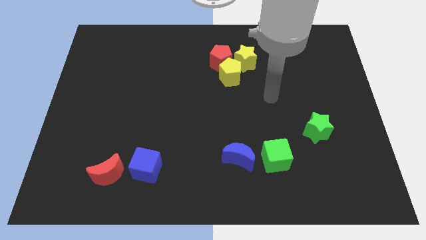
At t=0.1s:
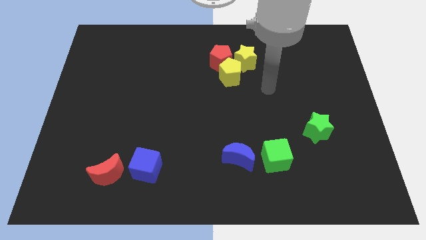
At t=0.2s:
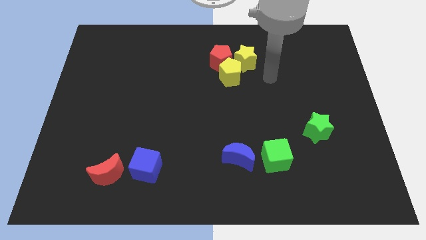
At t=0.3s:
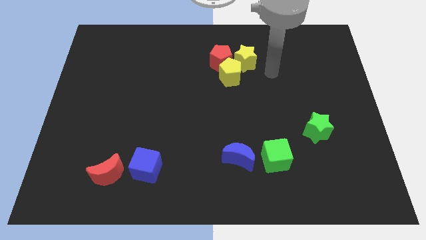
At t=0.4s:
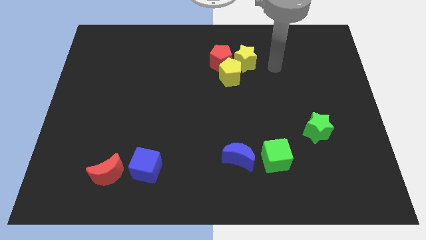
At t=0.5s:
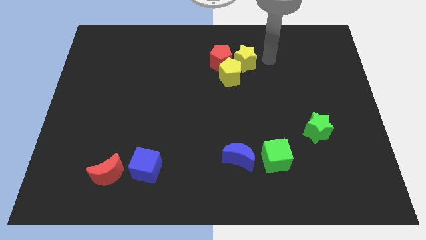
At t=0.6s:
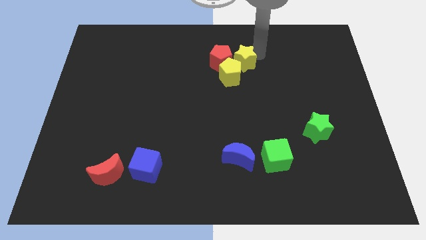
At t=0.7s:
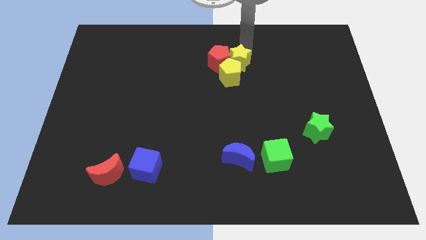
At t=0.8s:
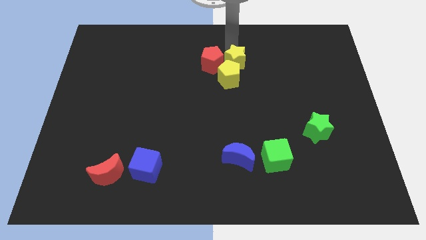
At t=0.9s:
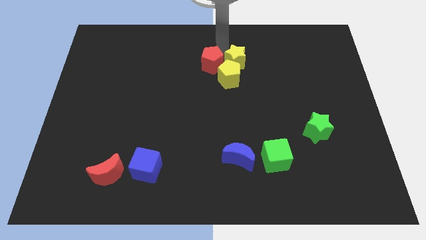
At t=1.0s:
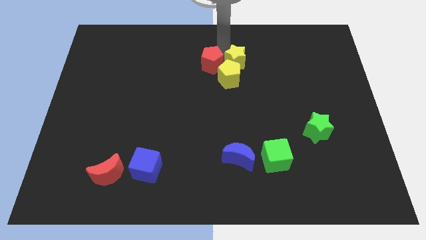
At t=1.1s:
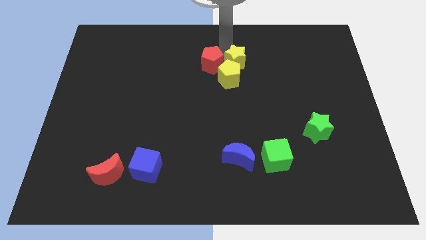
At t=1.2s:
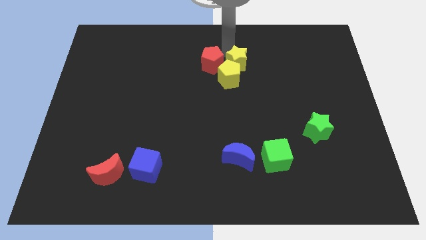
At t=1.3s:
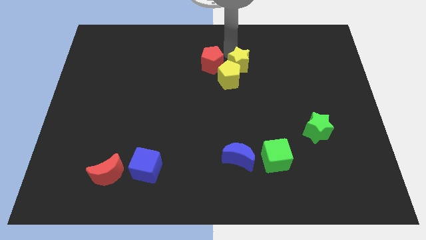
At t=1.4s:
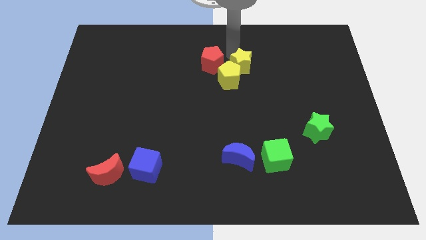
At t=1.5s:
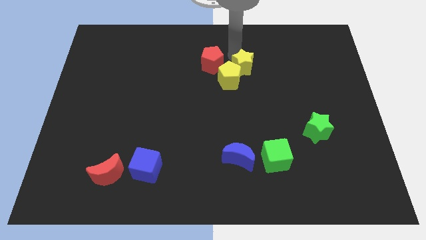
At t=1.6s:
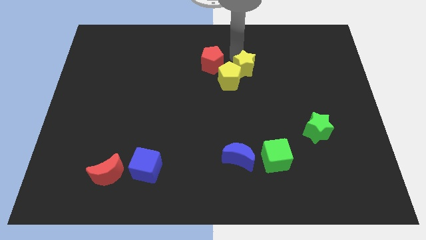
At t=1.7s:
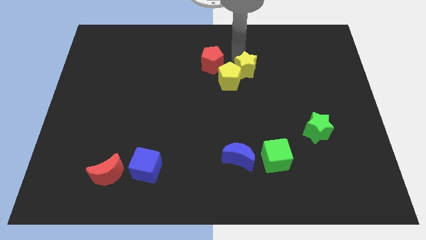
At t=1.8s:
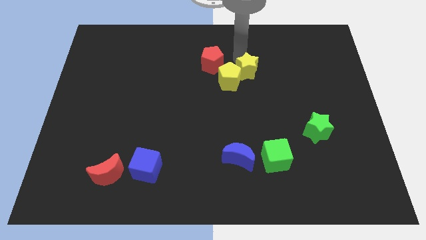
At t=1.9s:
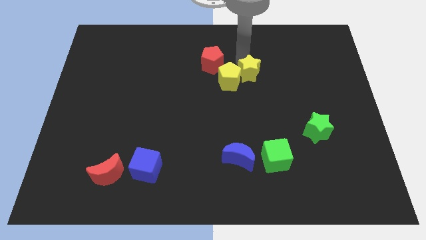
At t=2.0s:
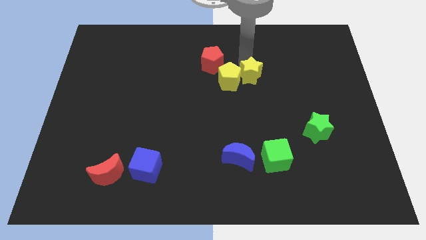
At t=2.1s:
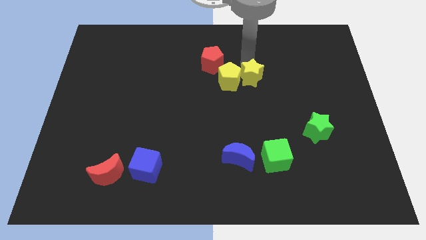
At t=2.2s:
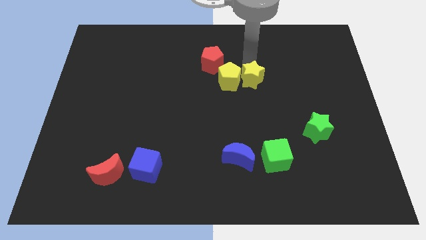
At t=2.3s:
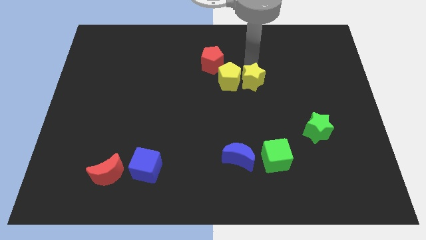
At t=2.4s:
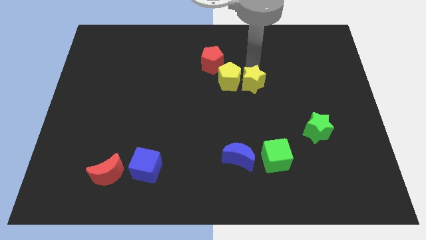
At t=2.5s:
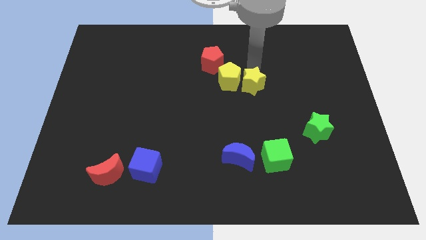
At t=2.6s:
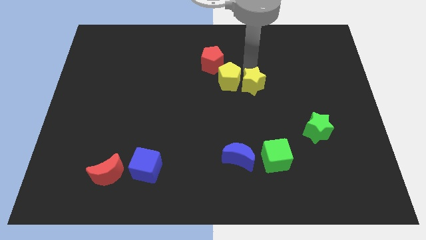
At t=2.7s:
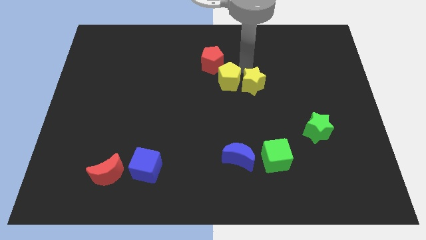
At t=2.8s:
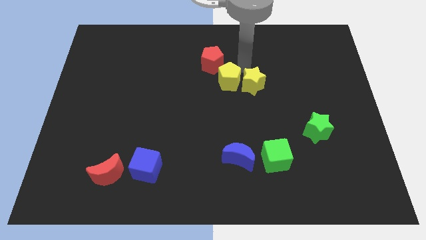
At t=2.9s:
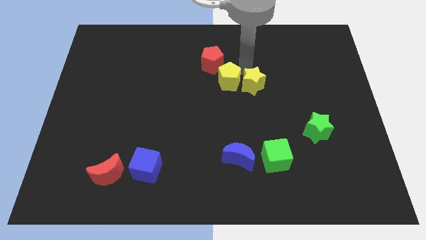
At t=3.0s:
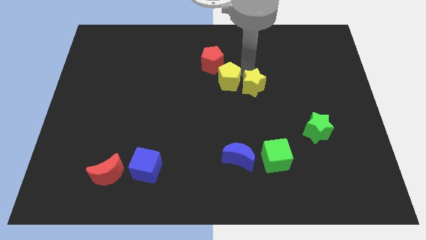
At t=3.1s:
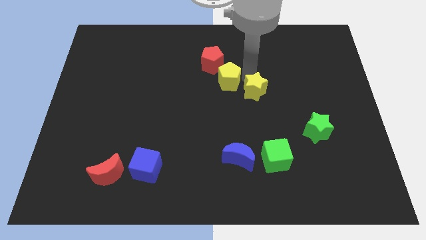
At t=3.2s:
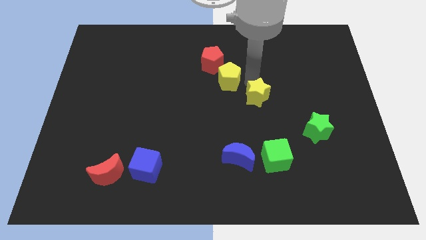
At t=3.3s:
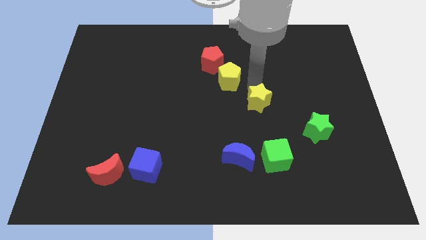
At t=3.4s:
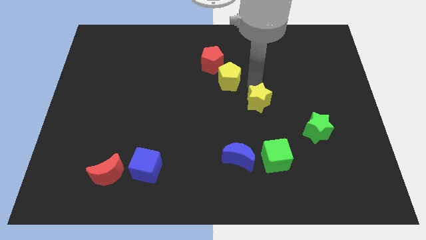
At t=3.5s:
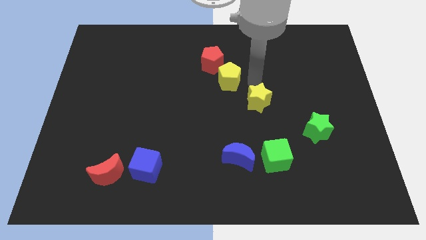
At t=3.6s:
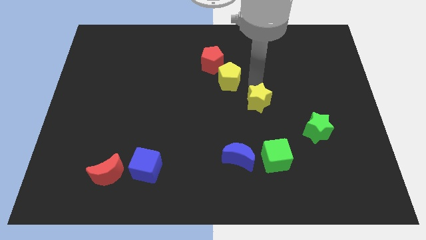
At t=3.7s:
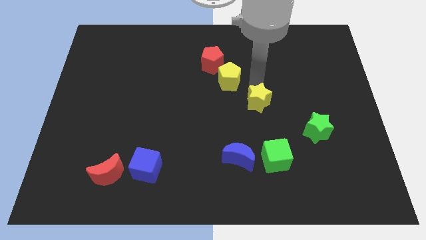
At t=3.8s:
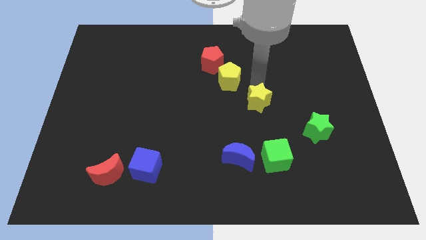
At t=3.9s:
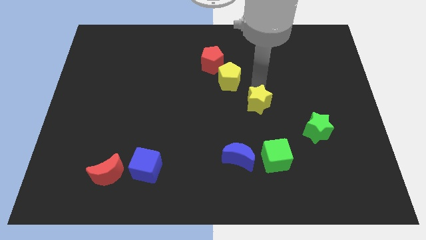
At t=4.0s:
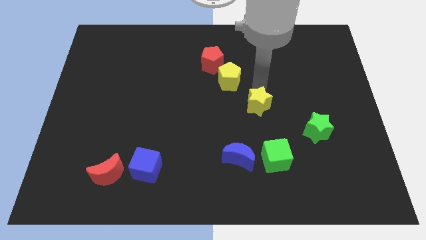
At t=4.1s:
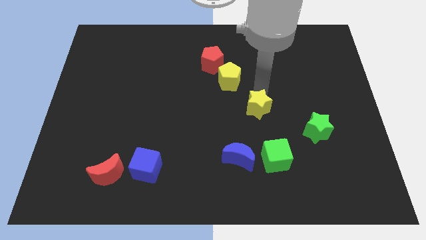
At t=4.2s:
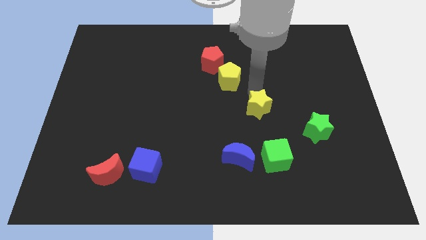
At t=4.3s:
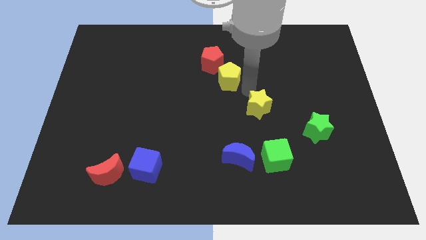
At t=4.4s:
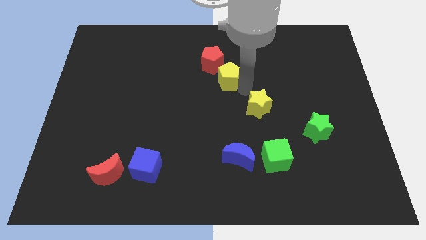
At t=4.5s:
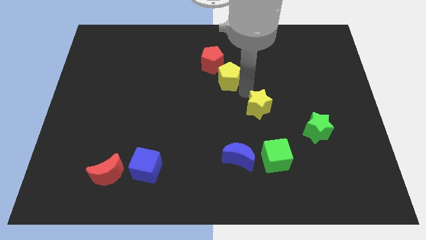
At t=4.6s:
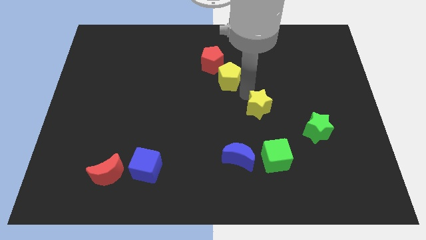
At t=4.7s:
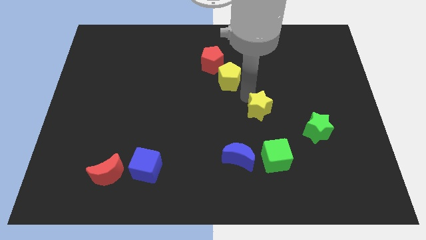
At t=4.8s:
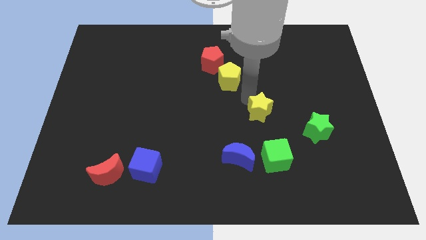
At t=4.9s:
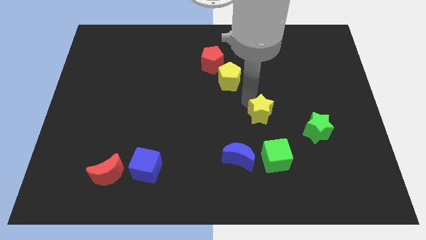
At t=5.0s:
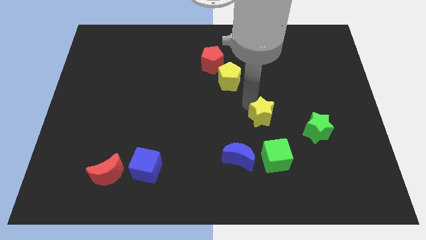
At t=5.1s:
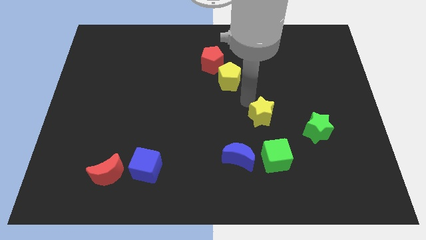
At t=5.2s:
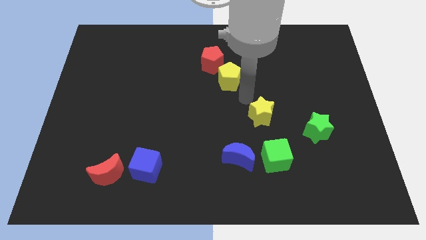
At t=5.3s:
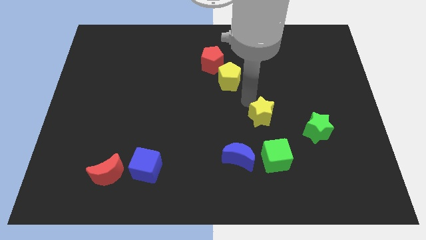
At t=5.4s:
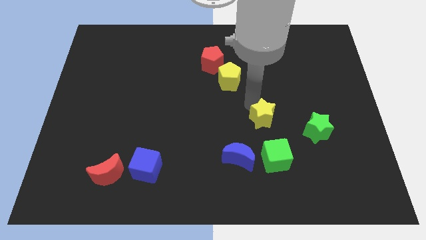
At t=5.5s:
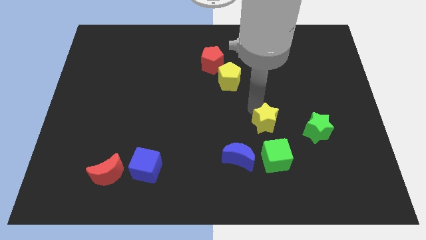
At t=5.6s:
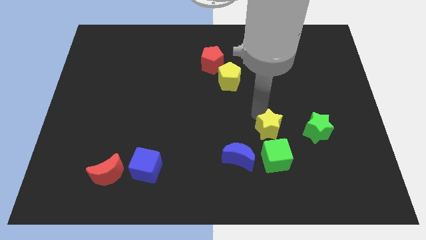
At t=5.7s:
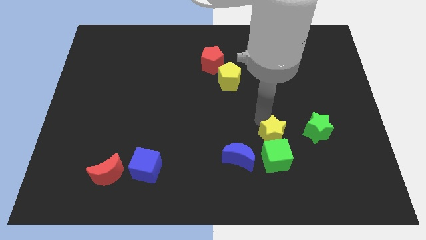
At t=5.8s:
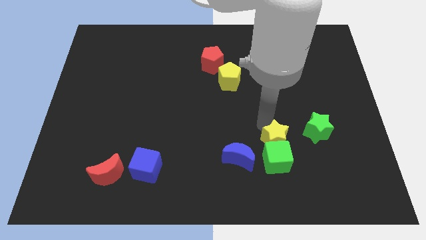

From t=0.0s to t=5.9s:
slide the yellow star just right of the blue moon
